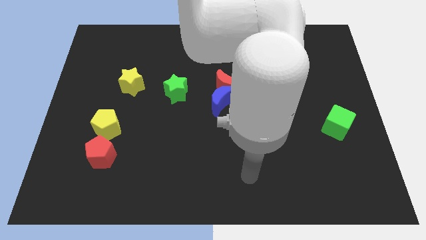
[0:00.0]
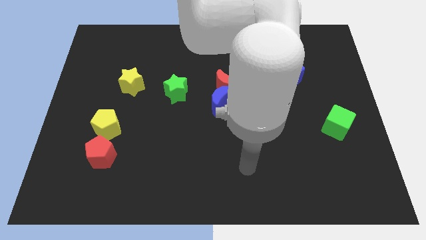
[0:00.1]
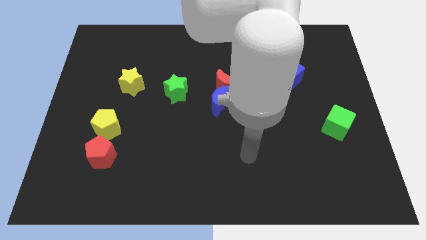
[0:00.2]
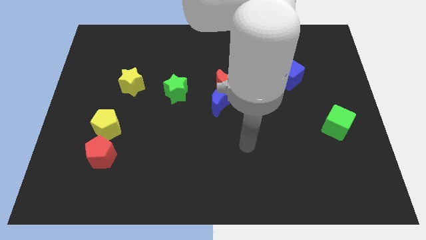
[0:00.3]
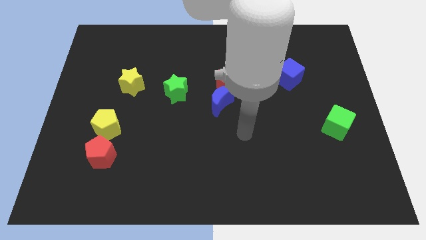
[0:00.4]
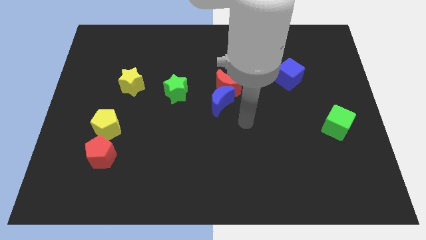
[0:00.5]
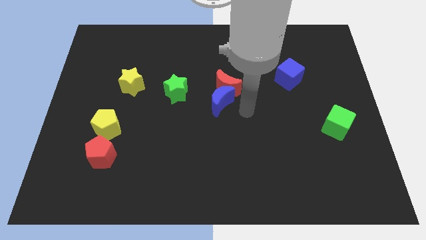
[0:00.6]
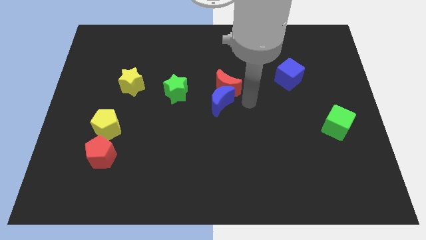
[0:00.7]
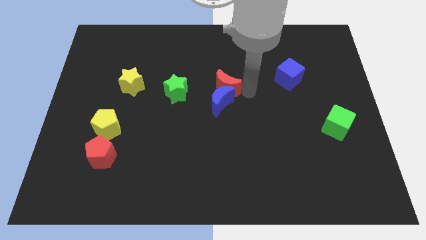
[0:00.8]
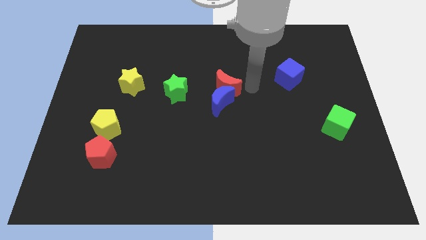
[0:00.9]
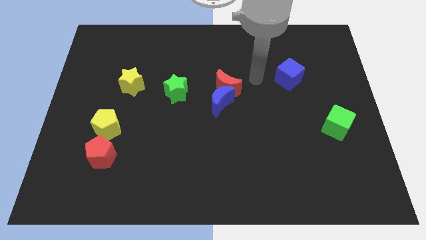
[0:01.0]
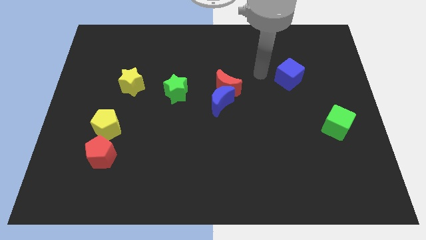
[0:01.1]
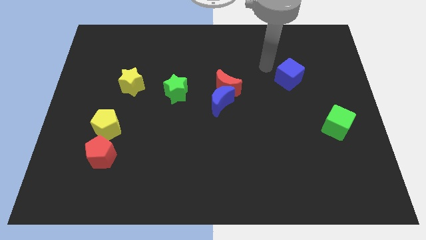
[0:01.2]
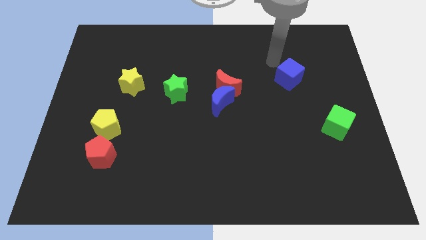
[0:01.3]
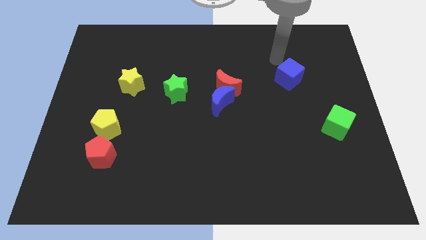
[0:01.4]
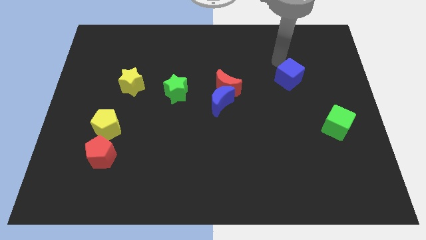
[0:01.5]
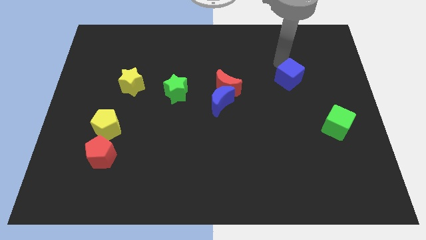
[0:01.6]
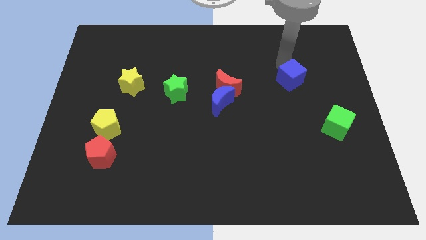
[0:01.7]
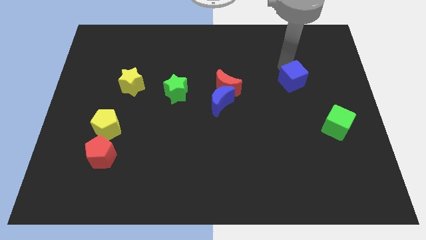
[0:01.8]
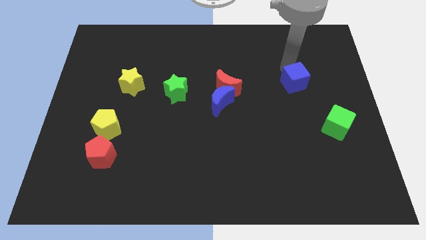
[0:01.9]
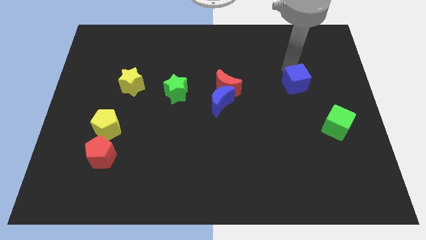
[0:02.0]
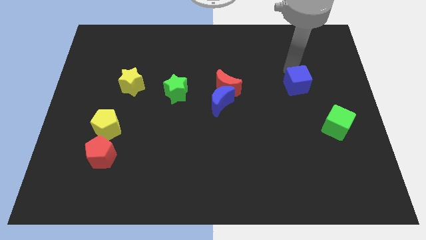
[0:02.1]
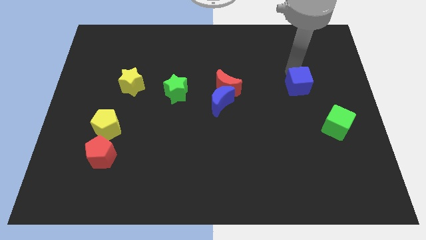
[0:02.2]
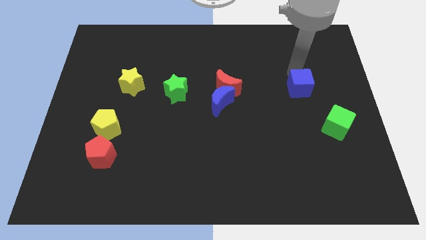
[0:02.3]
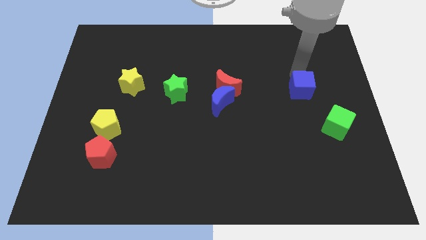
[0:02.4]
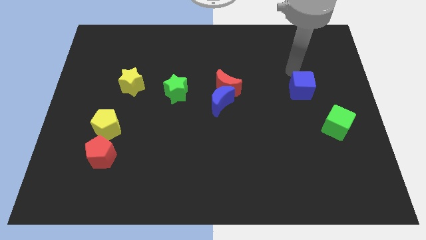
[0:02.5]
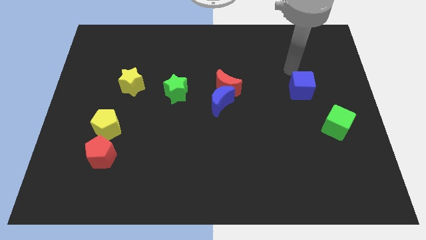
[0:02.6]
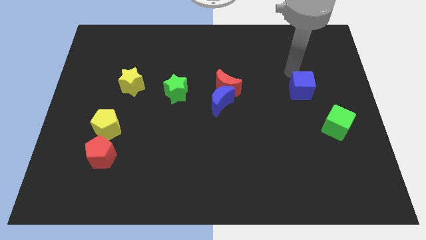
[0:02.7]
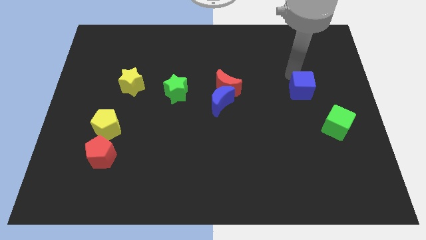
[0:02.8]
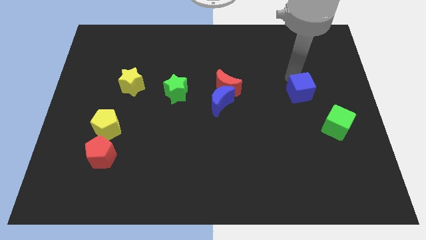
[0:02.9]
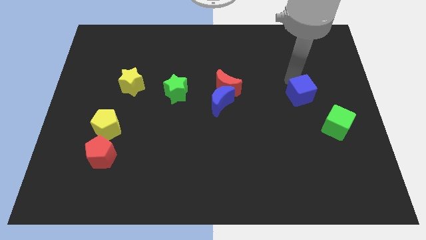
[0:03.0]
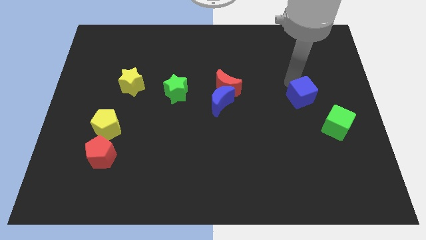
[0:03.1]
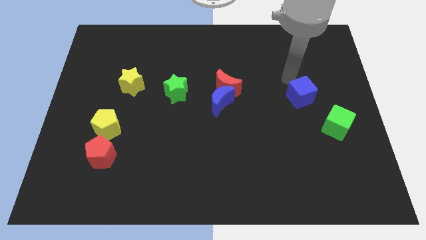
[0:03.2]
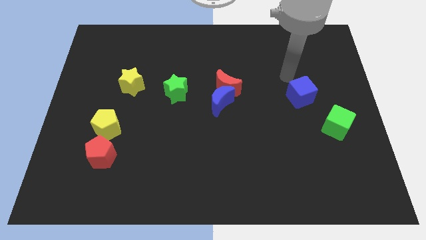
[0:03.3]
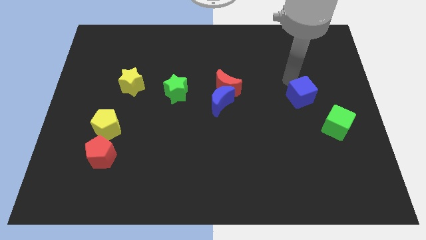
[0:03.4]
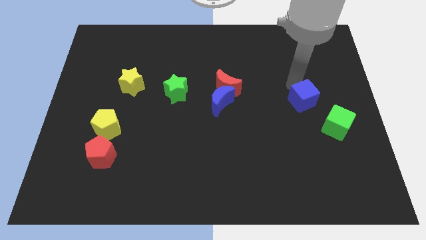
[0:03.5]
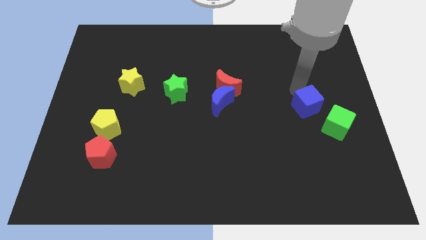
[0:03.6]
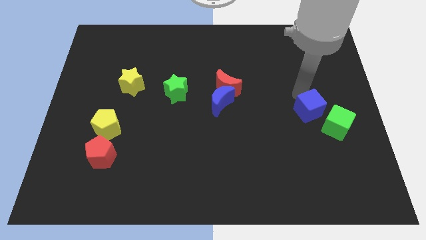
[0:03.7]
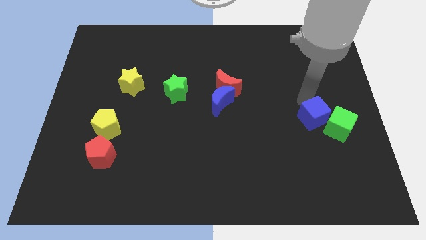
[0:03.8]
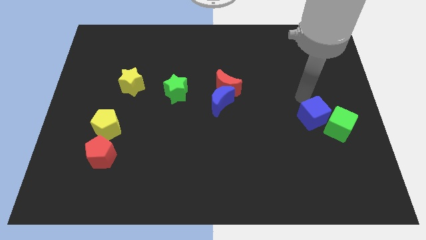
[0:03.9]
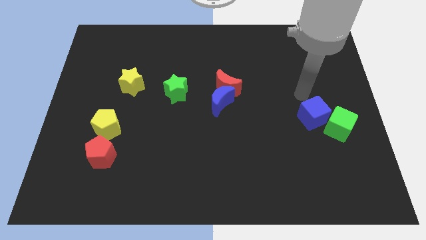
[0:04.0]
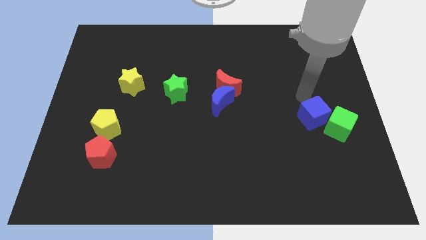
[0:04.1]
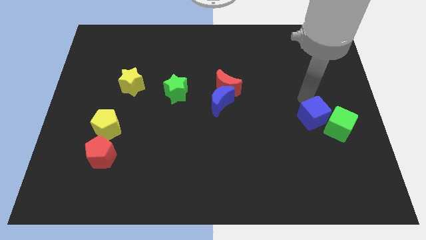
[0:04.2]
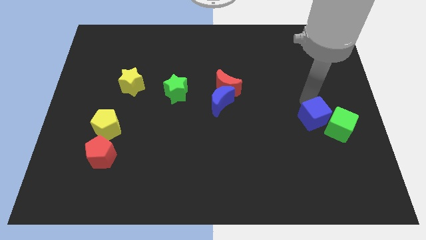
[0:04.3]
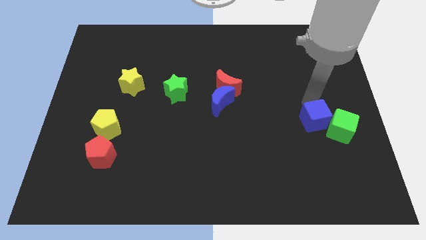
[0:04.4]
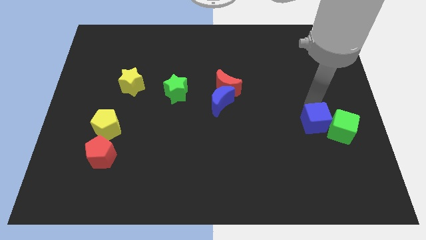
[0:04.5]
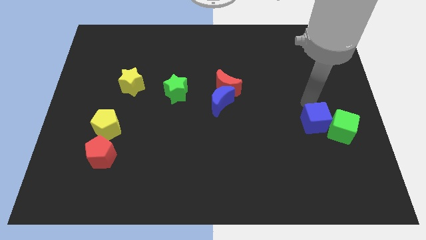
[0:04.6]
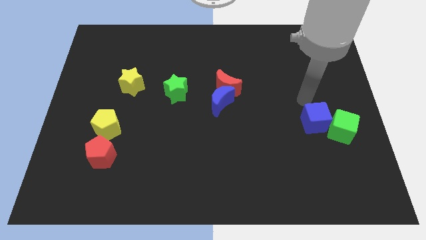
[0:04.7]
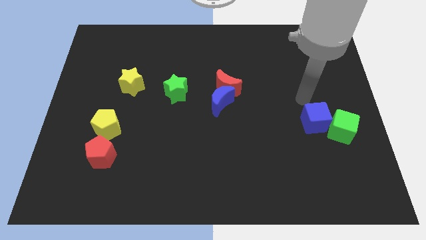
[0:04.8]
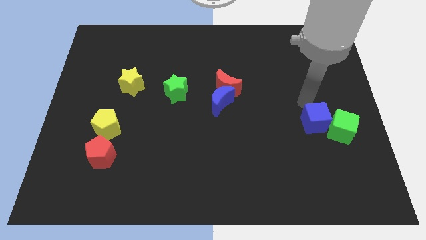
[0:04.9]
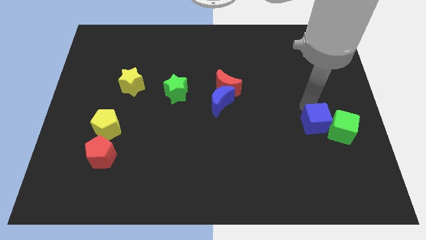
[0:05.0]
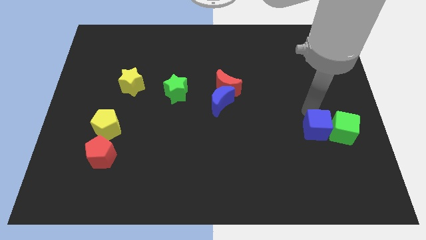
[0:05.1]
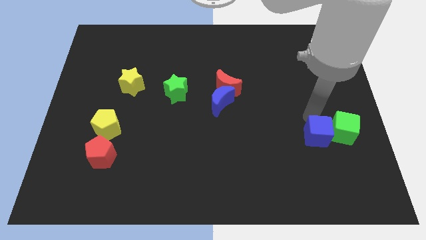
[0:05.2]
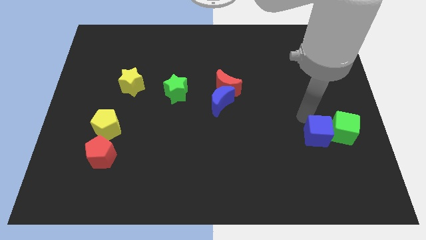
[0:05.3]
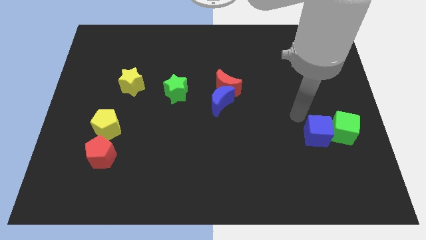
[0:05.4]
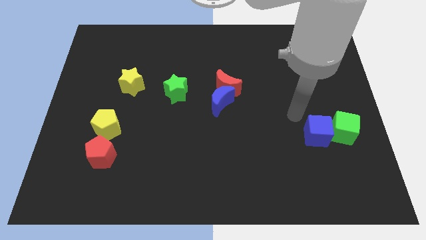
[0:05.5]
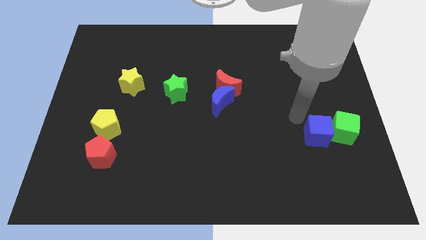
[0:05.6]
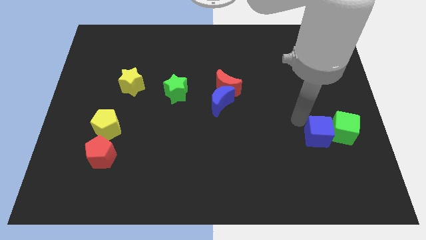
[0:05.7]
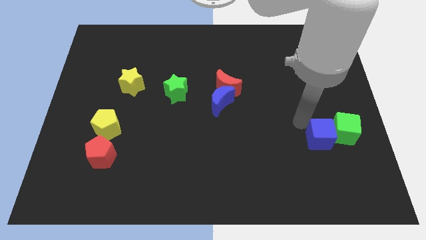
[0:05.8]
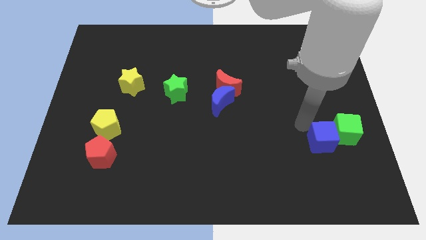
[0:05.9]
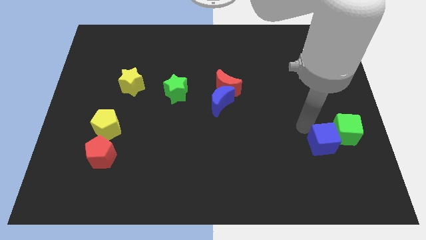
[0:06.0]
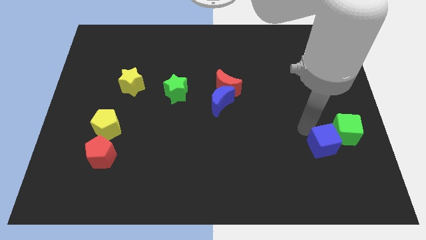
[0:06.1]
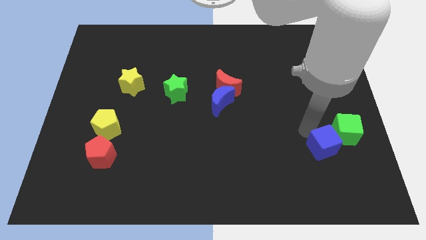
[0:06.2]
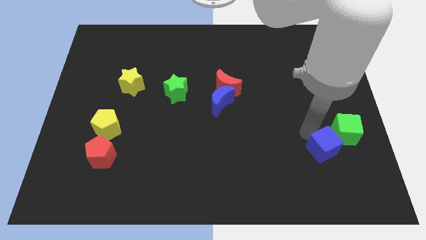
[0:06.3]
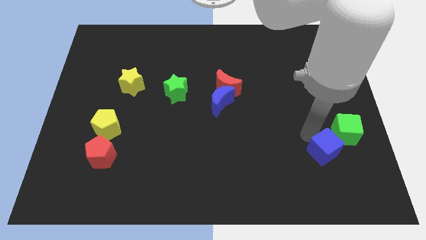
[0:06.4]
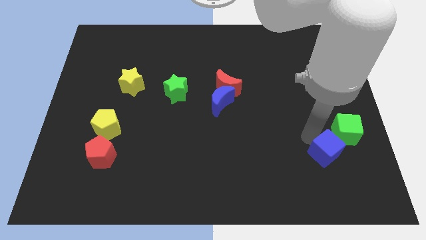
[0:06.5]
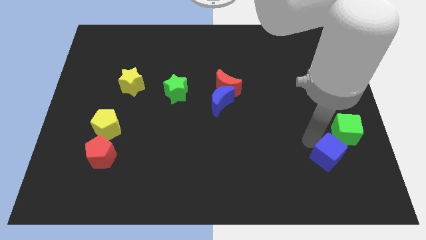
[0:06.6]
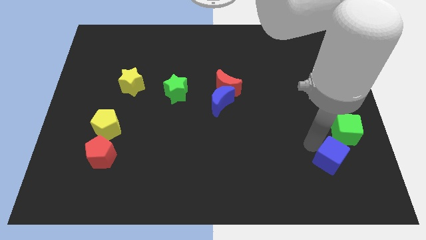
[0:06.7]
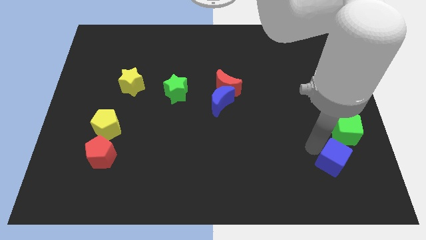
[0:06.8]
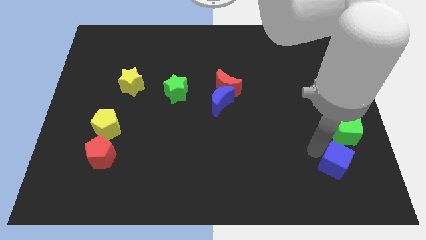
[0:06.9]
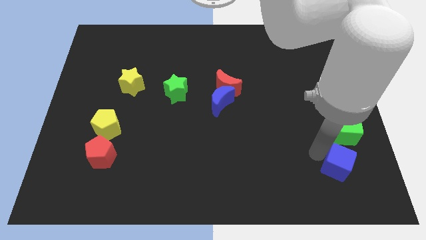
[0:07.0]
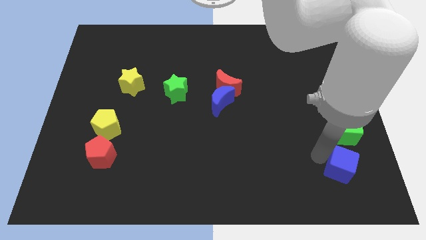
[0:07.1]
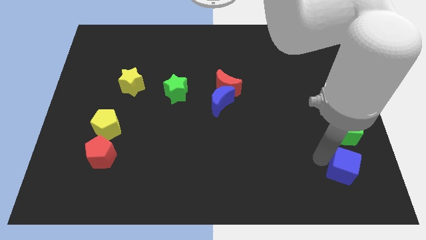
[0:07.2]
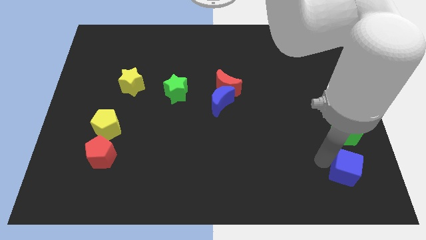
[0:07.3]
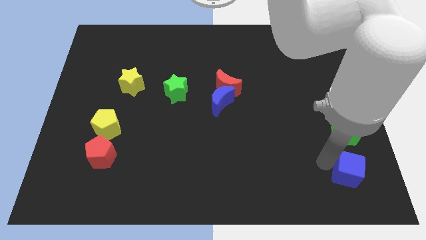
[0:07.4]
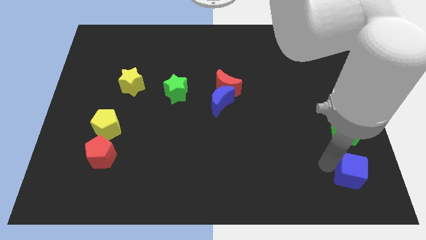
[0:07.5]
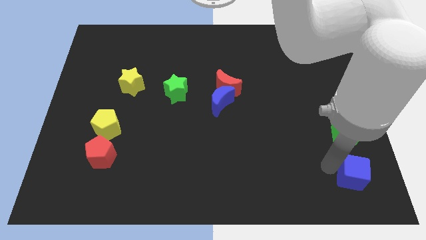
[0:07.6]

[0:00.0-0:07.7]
put the blue cube to the bottom right of the board
